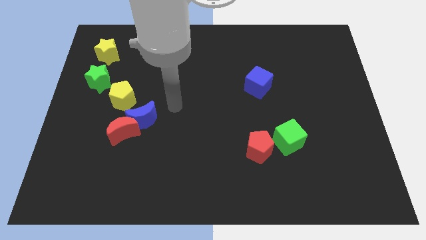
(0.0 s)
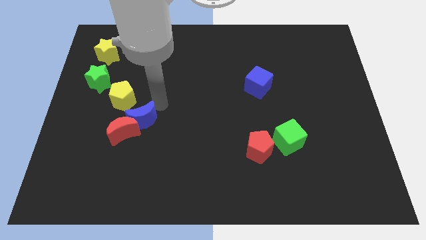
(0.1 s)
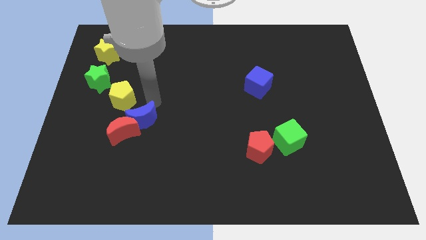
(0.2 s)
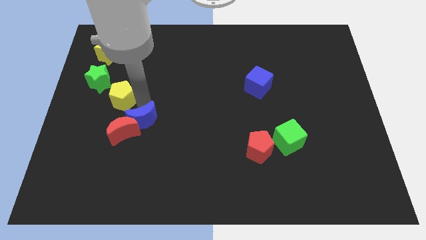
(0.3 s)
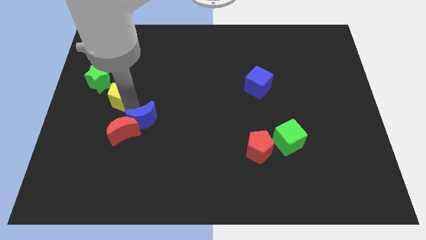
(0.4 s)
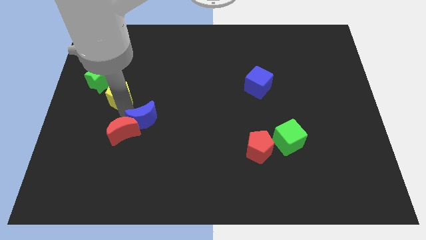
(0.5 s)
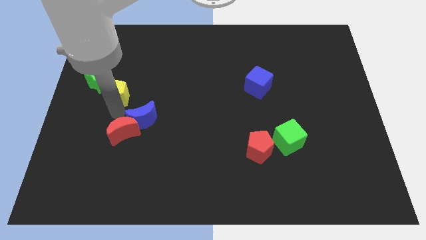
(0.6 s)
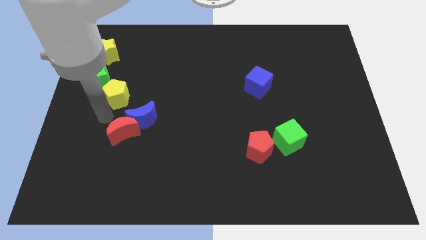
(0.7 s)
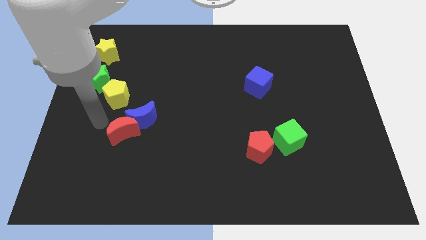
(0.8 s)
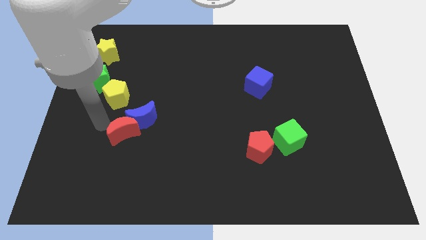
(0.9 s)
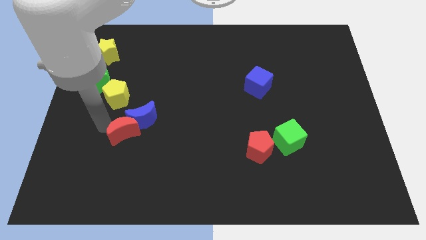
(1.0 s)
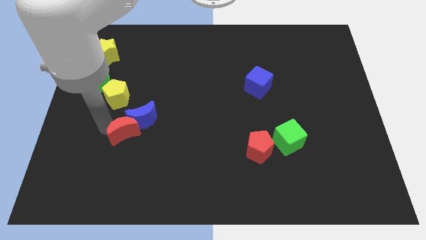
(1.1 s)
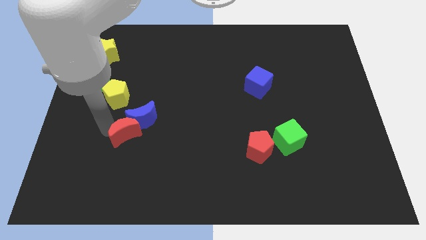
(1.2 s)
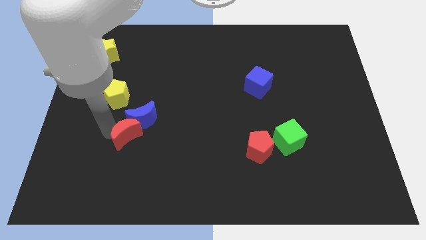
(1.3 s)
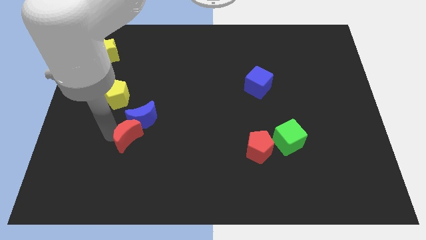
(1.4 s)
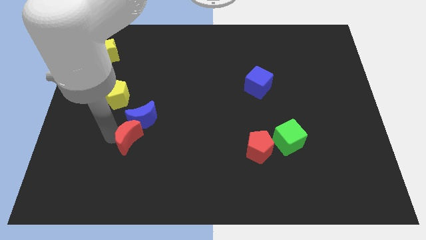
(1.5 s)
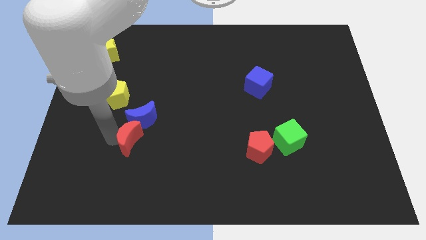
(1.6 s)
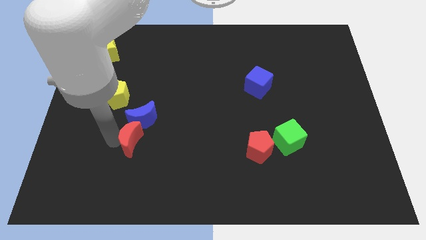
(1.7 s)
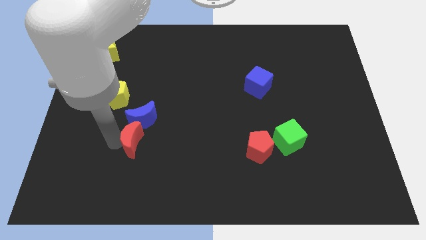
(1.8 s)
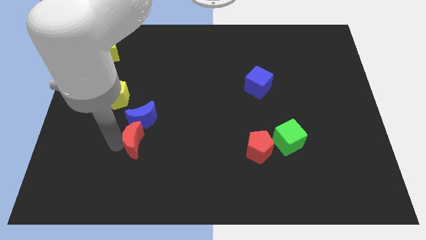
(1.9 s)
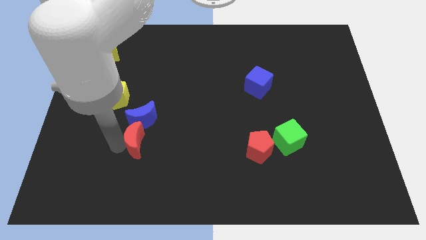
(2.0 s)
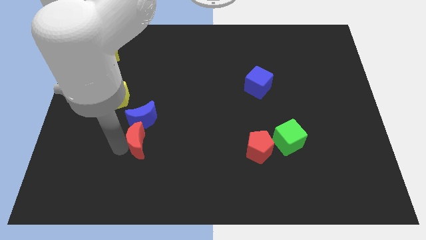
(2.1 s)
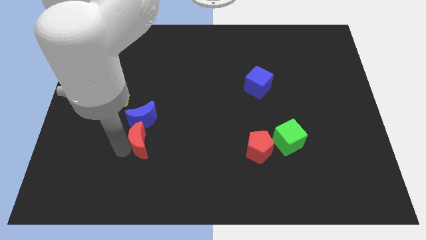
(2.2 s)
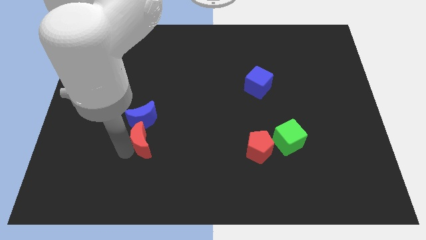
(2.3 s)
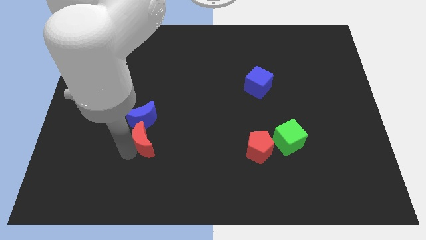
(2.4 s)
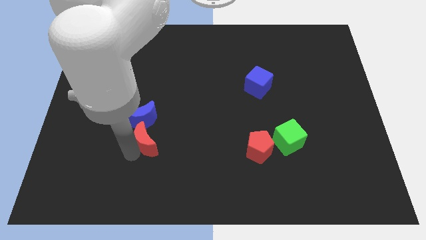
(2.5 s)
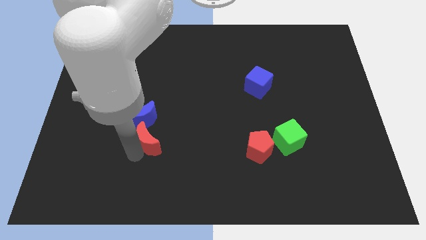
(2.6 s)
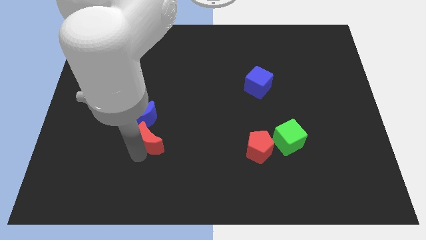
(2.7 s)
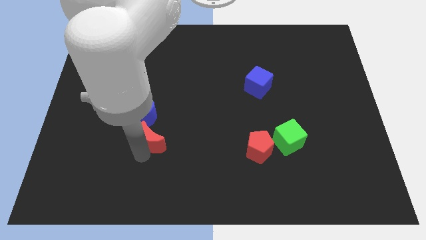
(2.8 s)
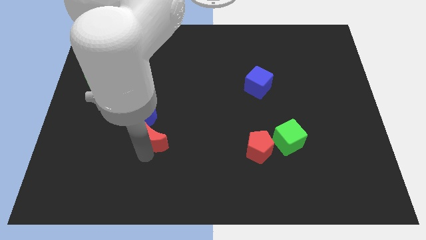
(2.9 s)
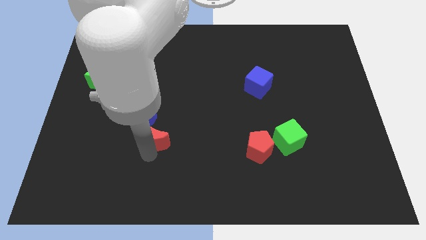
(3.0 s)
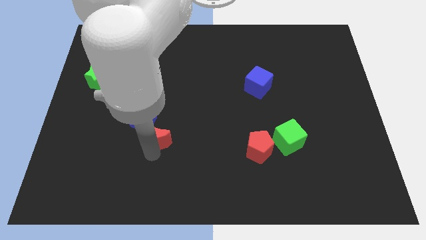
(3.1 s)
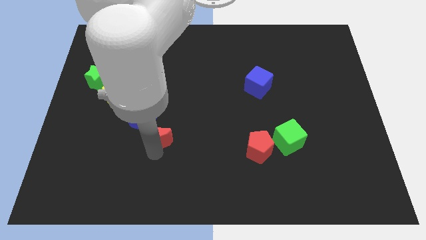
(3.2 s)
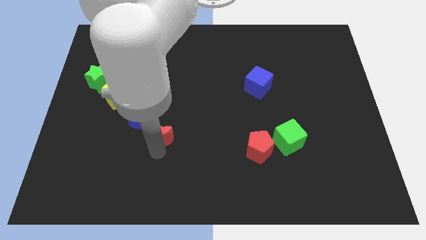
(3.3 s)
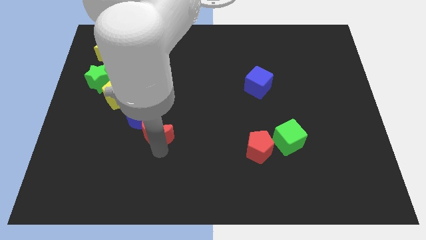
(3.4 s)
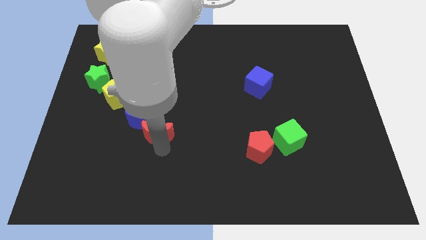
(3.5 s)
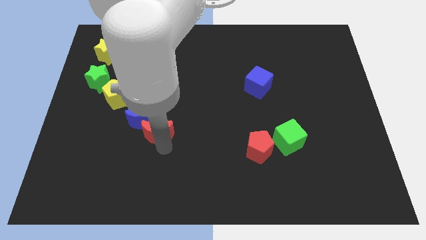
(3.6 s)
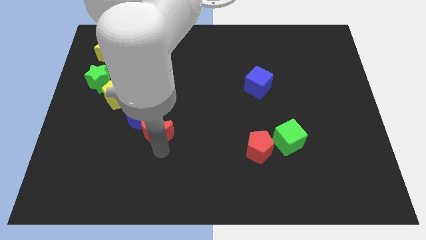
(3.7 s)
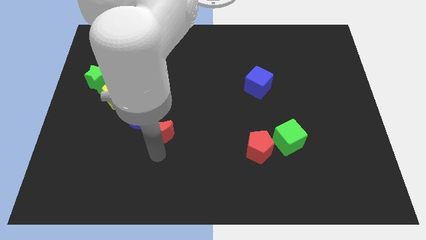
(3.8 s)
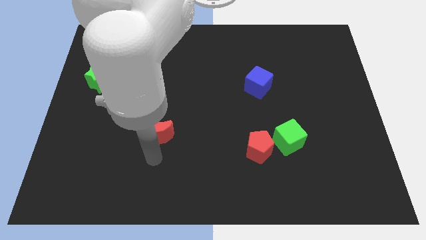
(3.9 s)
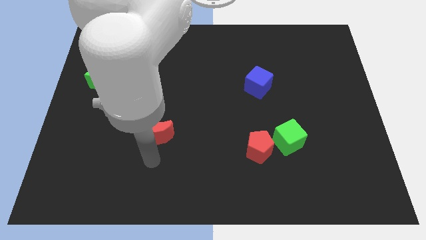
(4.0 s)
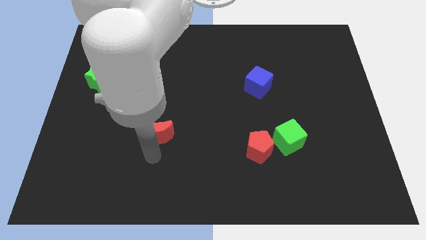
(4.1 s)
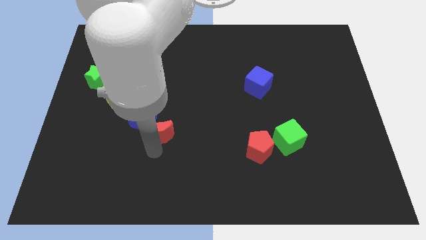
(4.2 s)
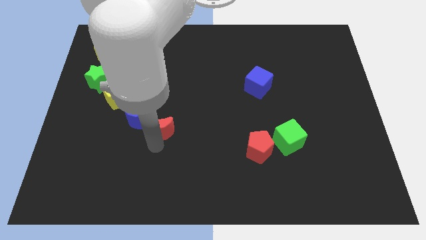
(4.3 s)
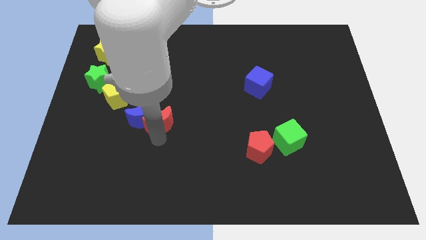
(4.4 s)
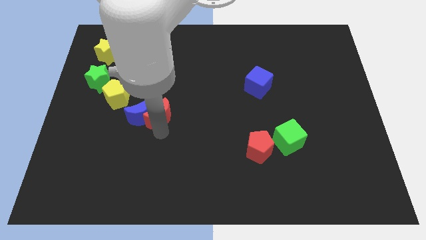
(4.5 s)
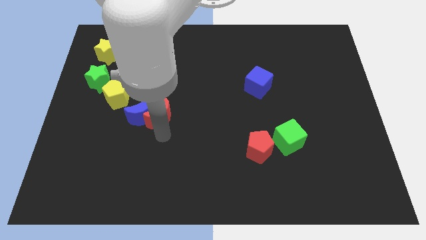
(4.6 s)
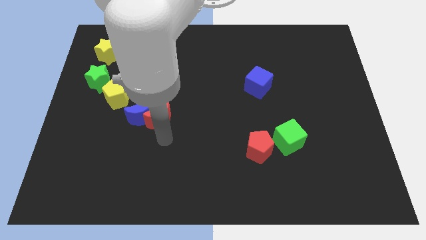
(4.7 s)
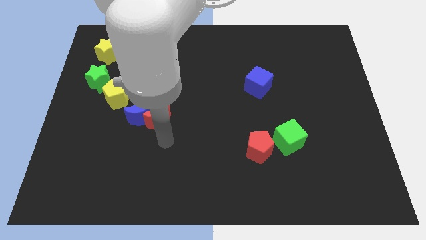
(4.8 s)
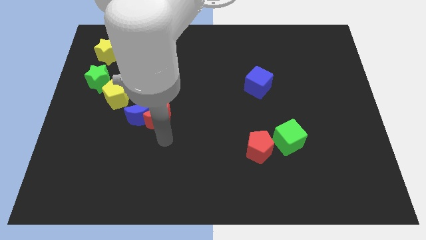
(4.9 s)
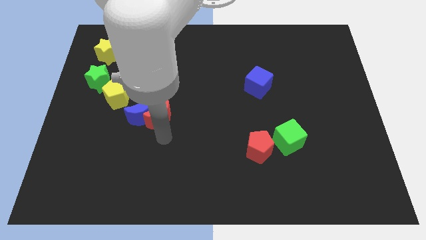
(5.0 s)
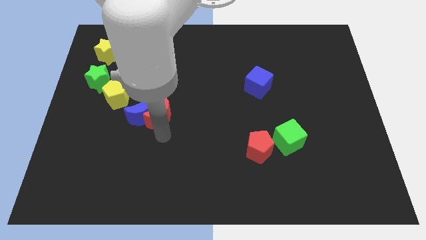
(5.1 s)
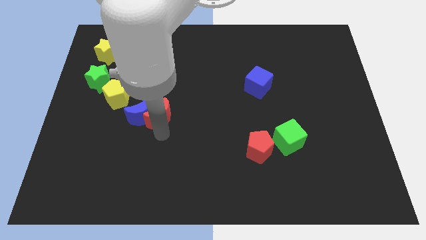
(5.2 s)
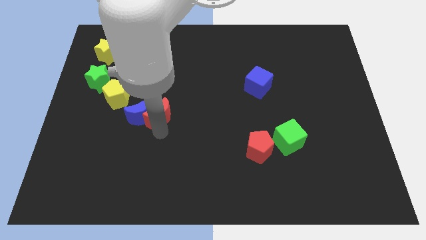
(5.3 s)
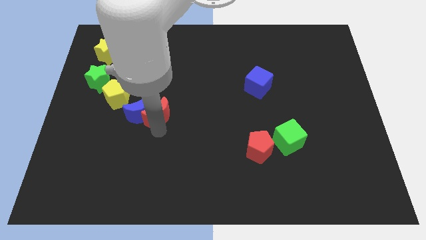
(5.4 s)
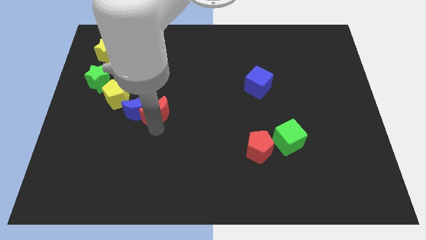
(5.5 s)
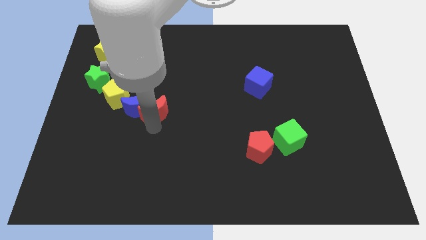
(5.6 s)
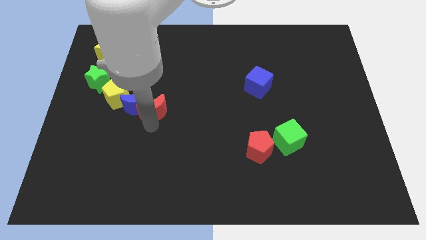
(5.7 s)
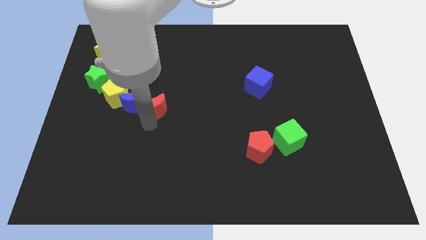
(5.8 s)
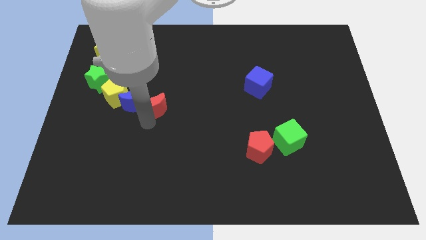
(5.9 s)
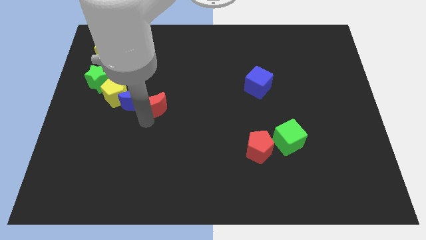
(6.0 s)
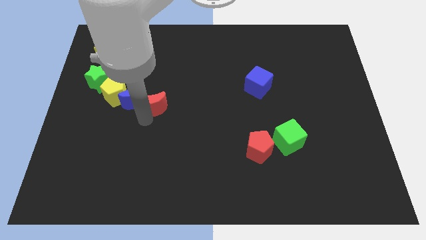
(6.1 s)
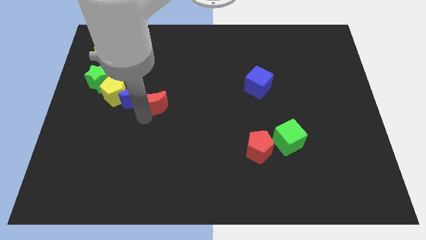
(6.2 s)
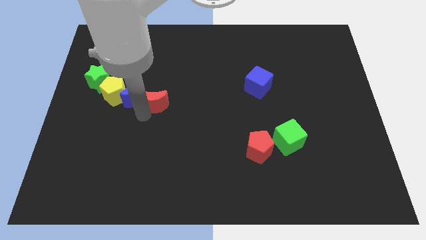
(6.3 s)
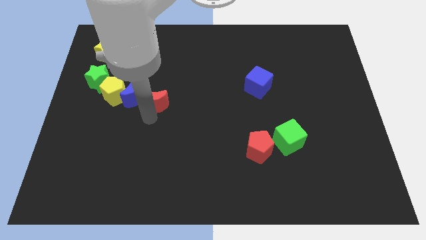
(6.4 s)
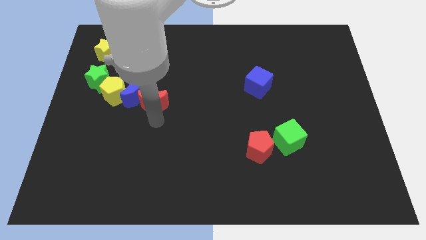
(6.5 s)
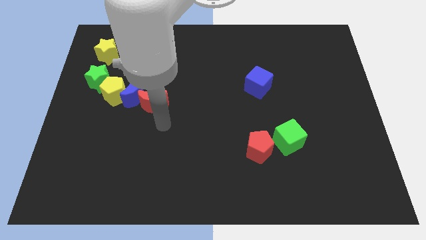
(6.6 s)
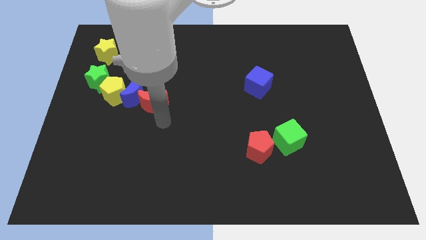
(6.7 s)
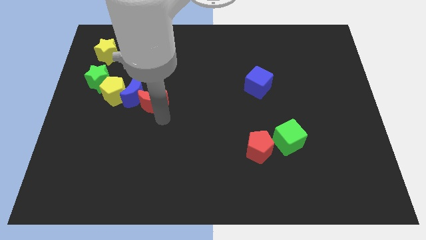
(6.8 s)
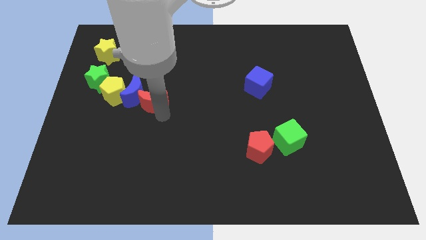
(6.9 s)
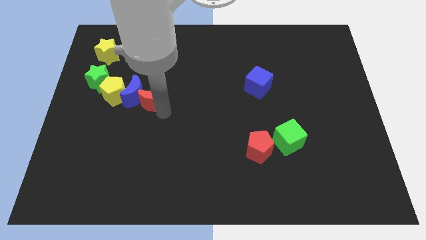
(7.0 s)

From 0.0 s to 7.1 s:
slightly move the red moon up

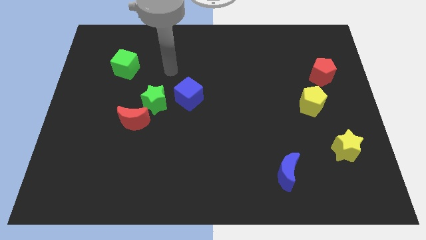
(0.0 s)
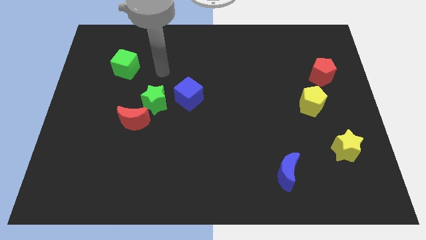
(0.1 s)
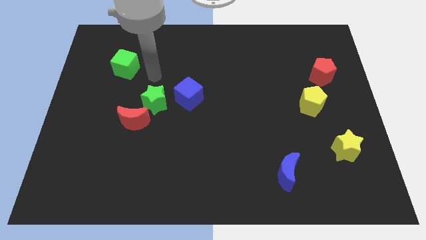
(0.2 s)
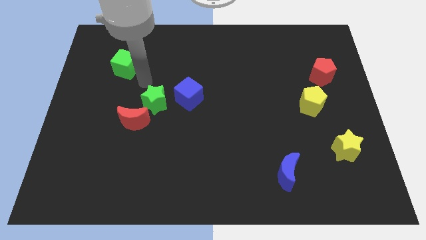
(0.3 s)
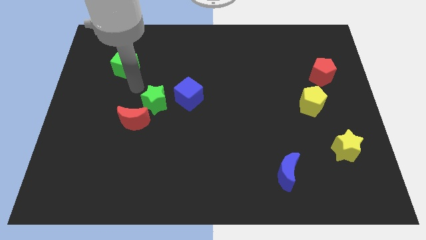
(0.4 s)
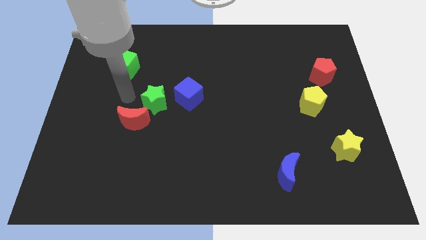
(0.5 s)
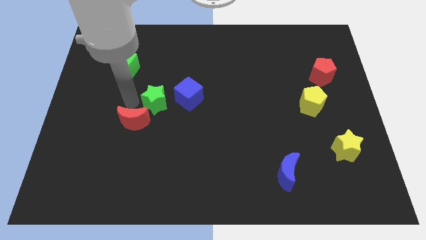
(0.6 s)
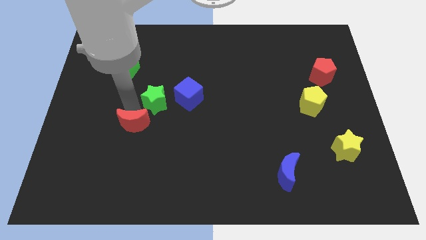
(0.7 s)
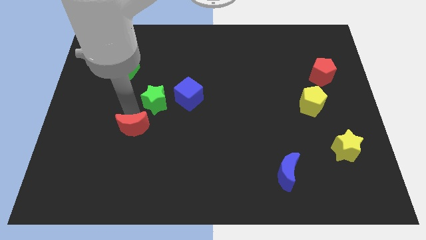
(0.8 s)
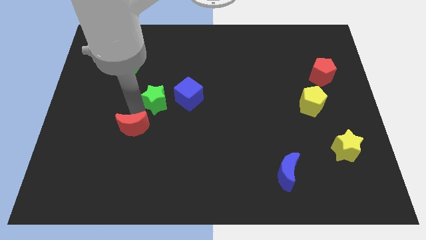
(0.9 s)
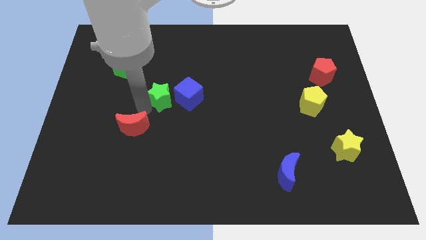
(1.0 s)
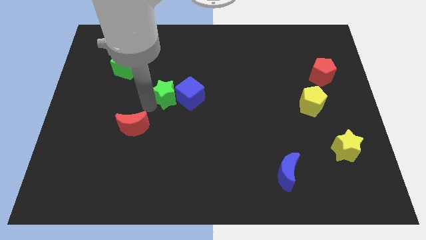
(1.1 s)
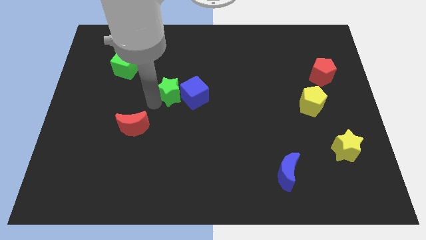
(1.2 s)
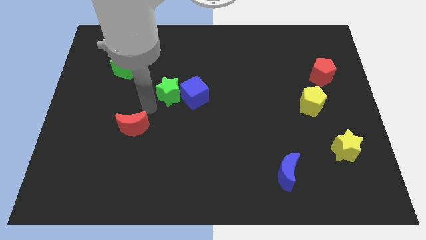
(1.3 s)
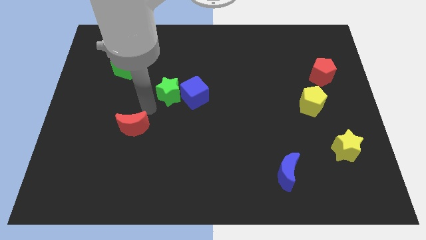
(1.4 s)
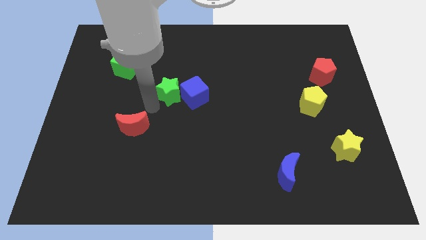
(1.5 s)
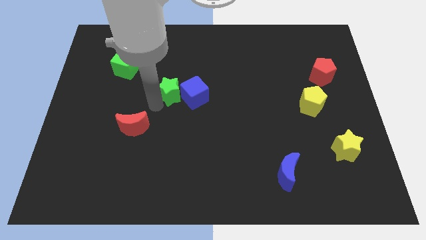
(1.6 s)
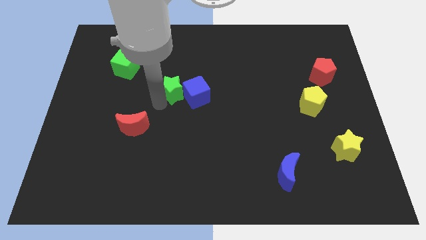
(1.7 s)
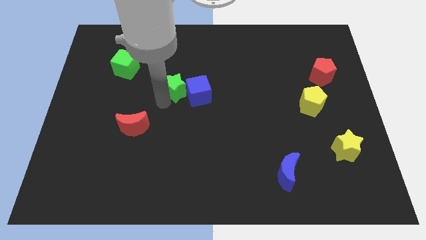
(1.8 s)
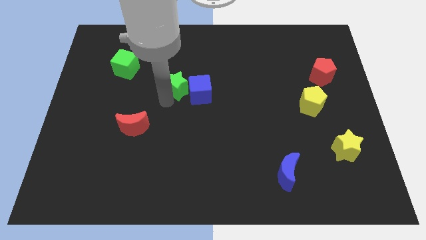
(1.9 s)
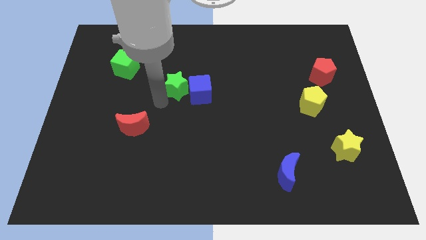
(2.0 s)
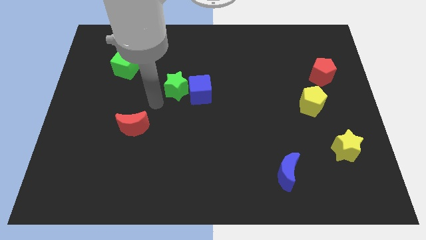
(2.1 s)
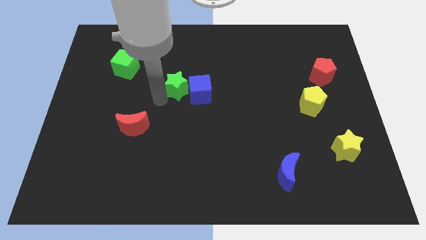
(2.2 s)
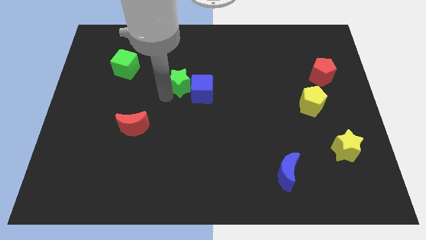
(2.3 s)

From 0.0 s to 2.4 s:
slightly slide the green star up and right diagonally
